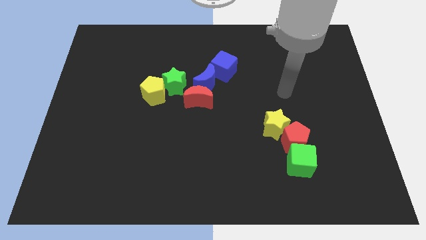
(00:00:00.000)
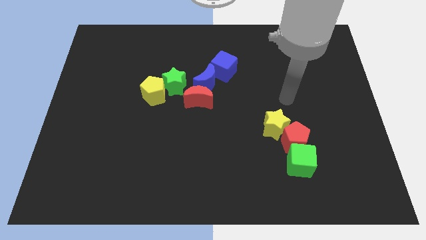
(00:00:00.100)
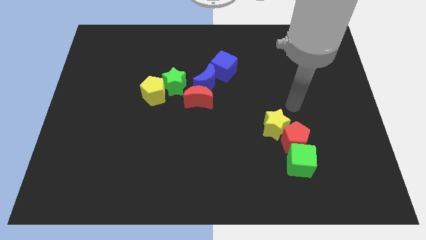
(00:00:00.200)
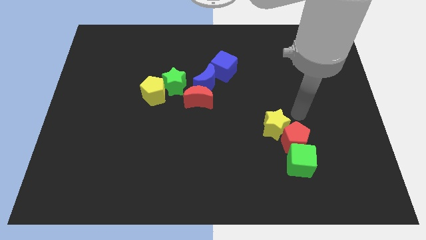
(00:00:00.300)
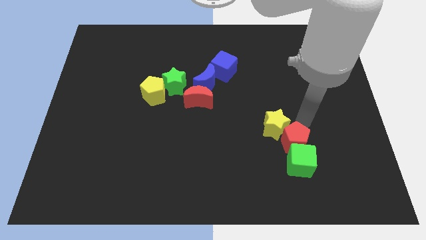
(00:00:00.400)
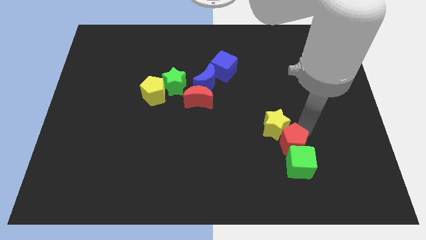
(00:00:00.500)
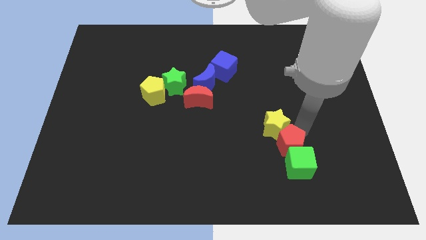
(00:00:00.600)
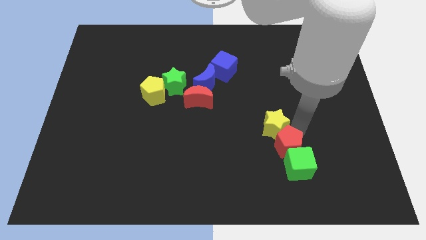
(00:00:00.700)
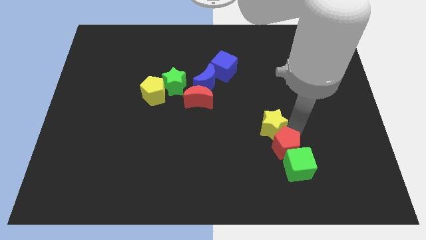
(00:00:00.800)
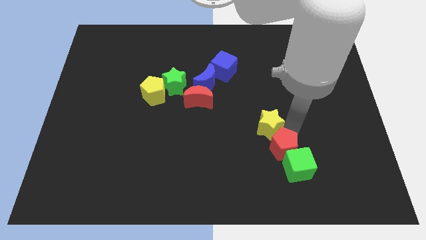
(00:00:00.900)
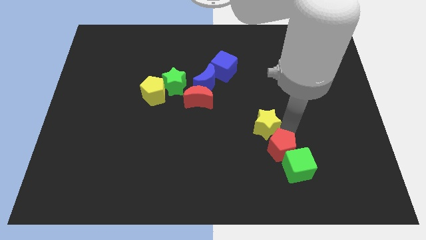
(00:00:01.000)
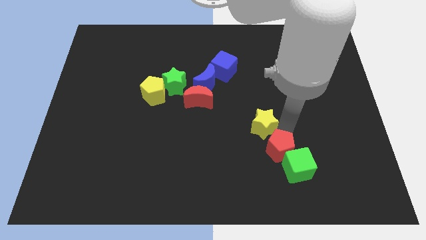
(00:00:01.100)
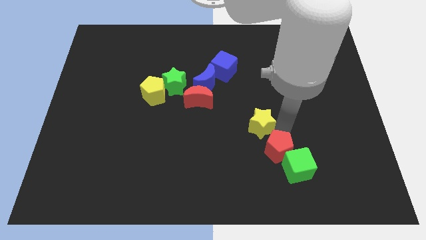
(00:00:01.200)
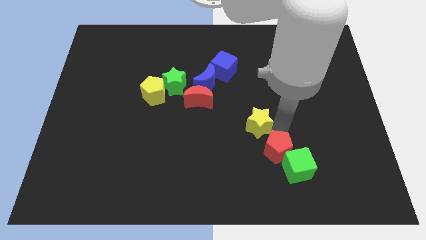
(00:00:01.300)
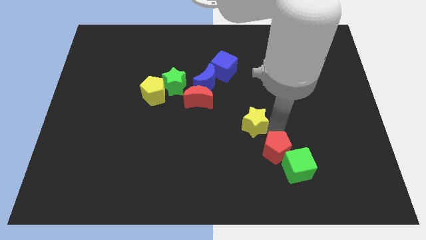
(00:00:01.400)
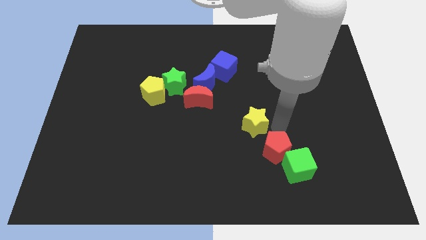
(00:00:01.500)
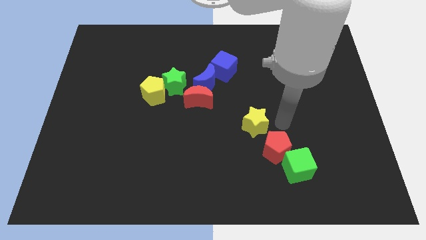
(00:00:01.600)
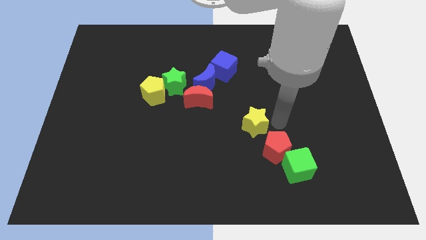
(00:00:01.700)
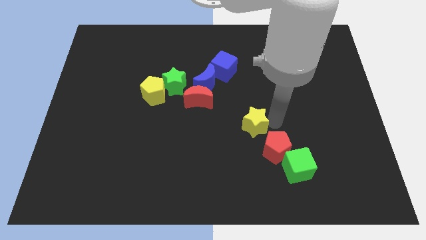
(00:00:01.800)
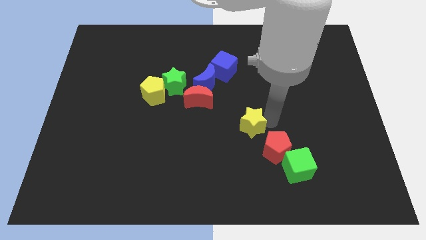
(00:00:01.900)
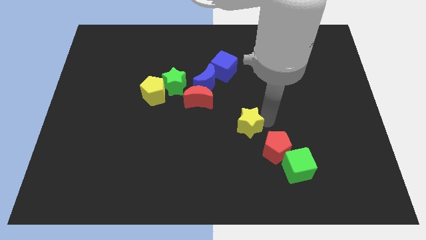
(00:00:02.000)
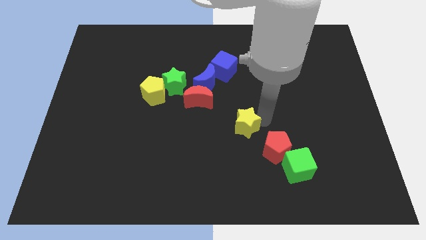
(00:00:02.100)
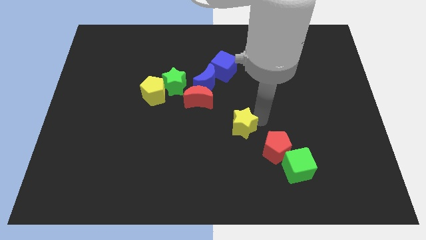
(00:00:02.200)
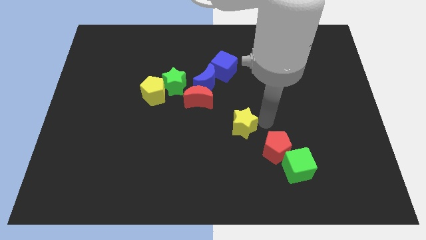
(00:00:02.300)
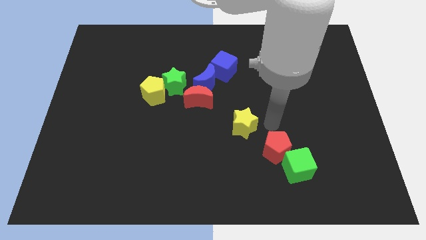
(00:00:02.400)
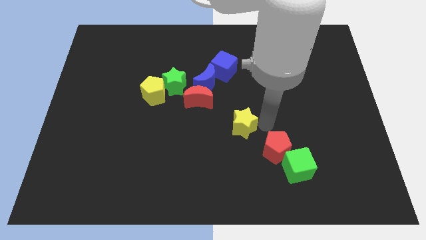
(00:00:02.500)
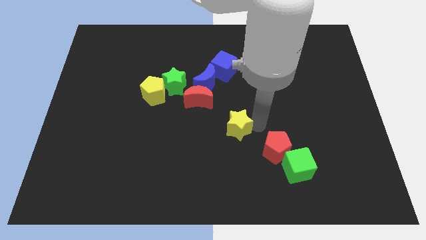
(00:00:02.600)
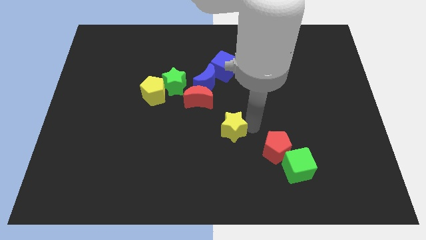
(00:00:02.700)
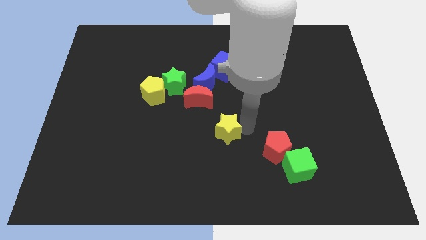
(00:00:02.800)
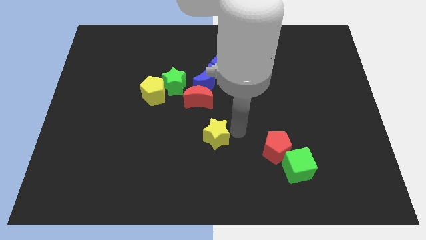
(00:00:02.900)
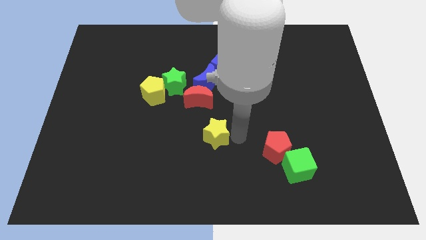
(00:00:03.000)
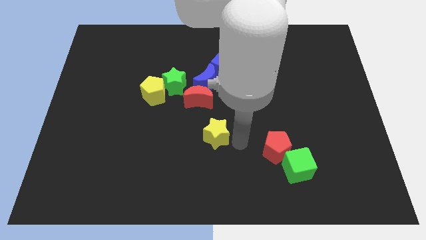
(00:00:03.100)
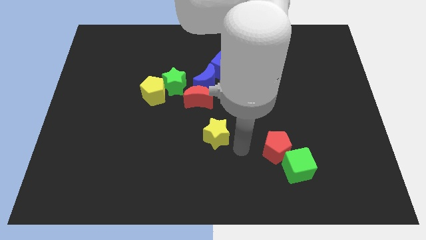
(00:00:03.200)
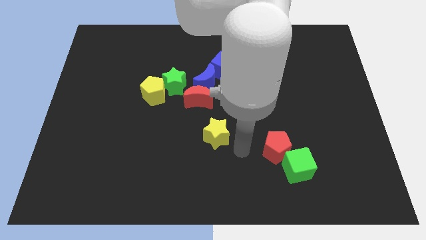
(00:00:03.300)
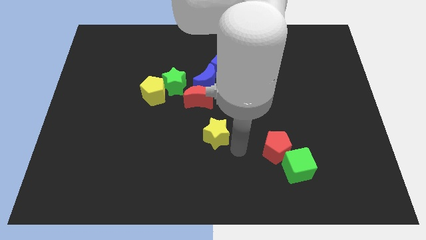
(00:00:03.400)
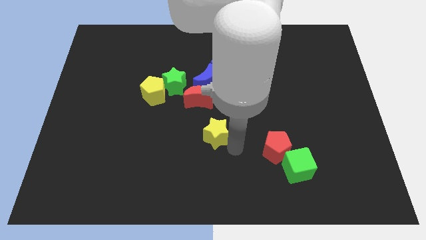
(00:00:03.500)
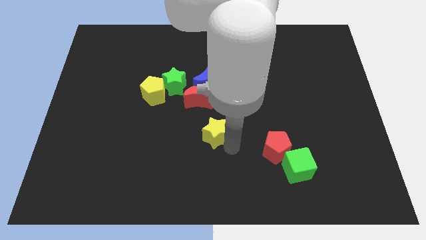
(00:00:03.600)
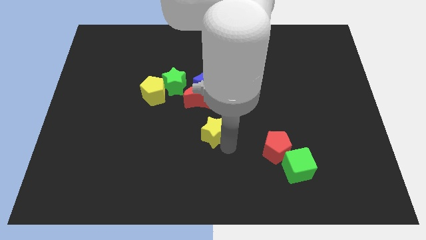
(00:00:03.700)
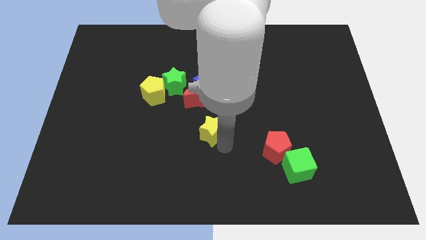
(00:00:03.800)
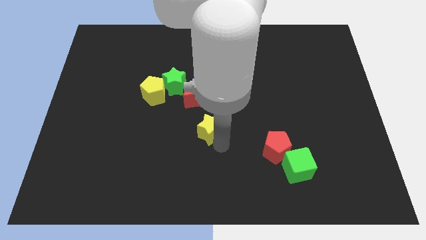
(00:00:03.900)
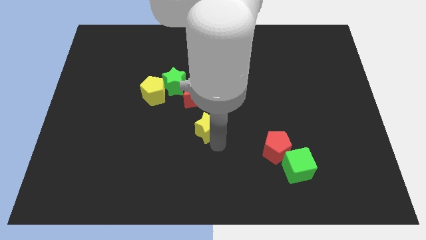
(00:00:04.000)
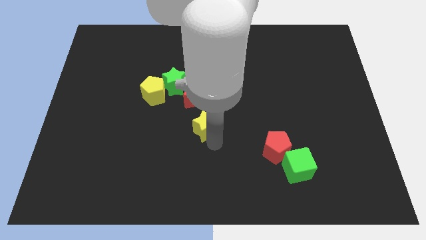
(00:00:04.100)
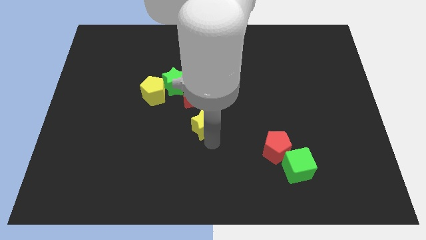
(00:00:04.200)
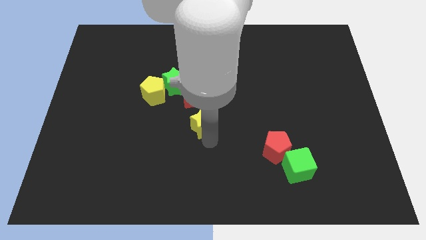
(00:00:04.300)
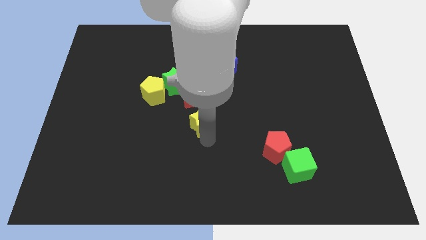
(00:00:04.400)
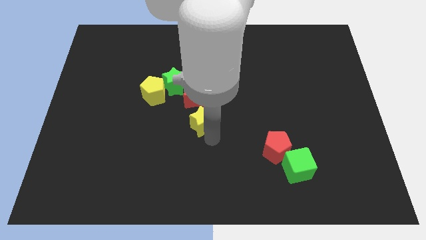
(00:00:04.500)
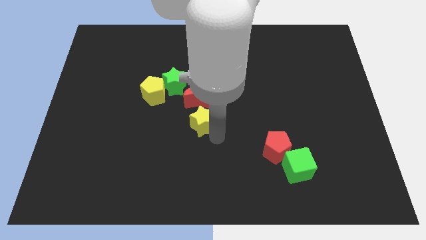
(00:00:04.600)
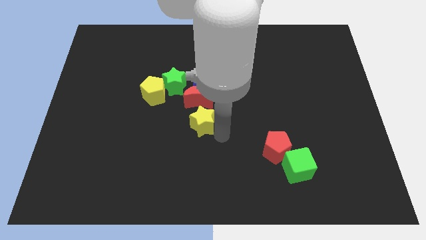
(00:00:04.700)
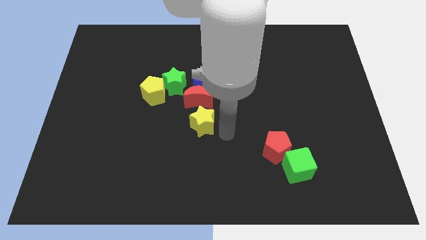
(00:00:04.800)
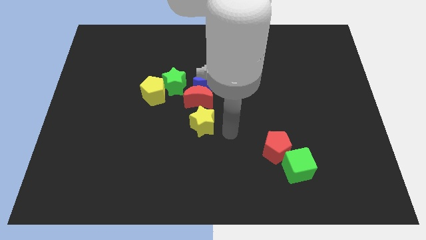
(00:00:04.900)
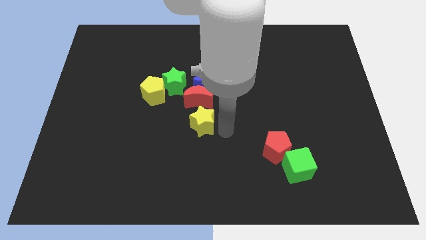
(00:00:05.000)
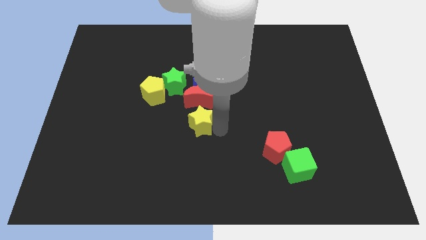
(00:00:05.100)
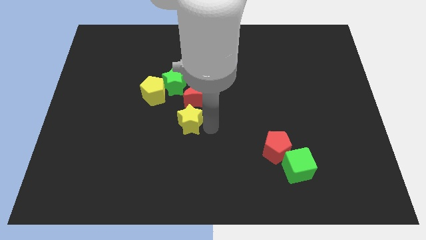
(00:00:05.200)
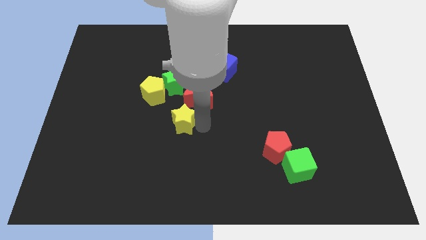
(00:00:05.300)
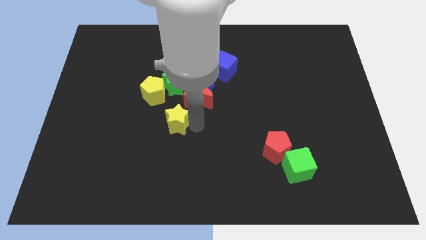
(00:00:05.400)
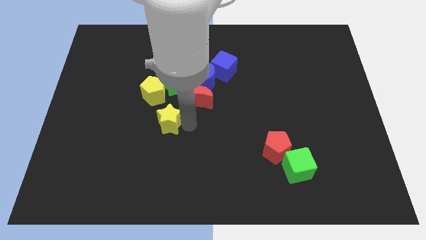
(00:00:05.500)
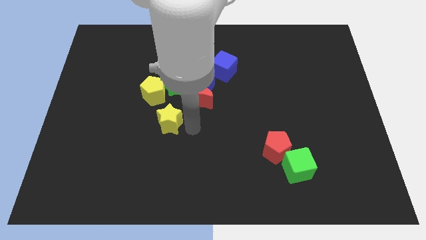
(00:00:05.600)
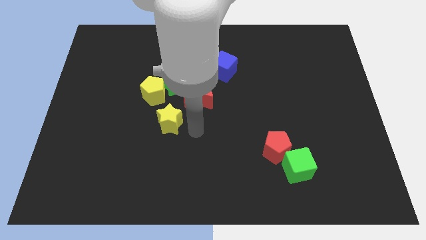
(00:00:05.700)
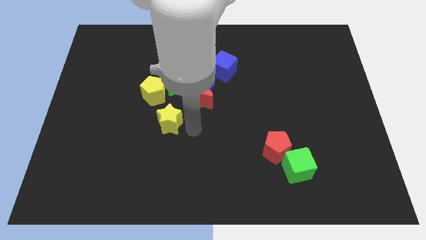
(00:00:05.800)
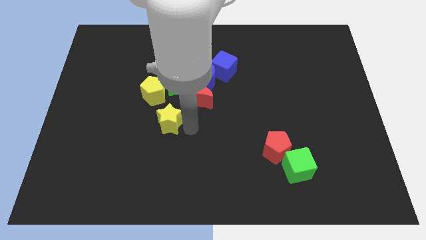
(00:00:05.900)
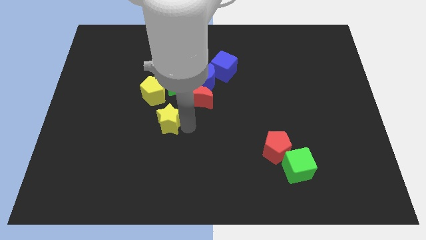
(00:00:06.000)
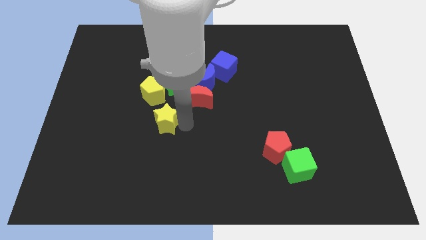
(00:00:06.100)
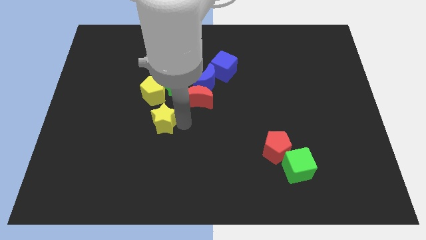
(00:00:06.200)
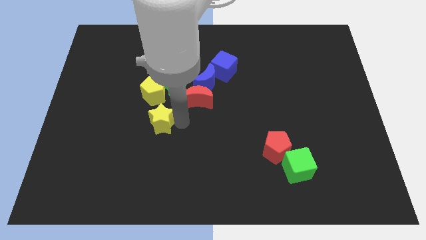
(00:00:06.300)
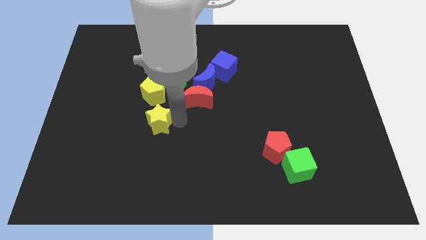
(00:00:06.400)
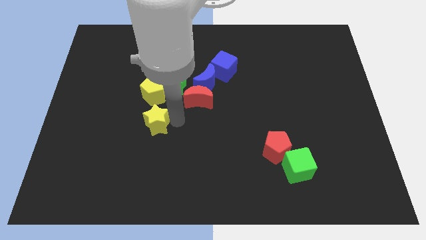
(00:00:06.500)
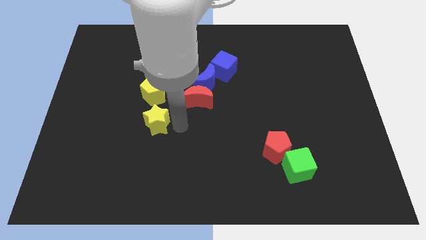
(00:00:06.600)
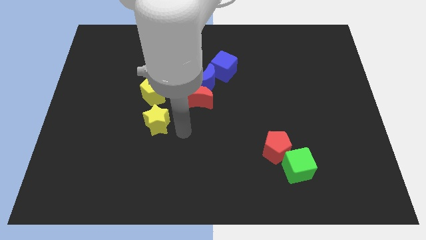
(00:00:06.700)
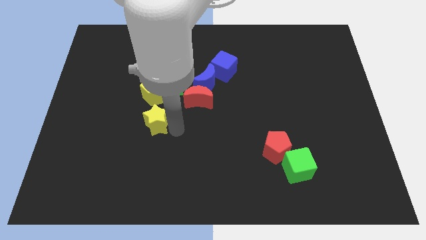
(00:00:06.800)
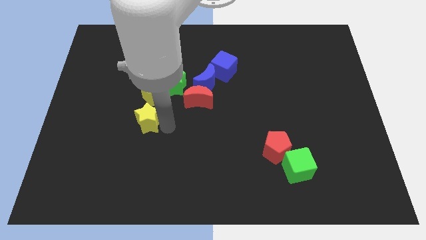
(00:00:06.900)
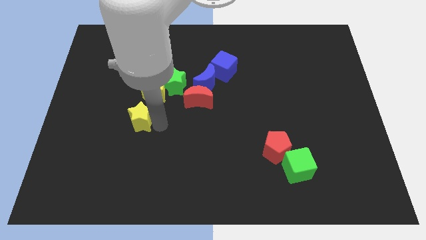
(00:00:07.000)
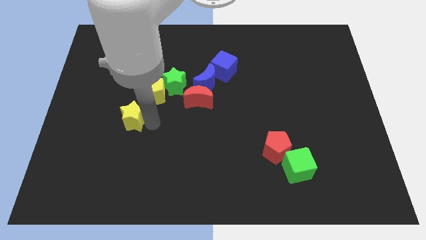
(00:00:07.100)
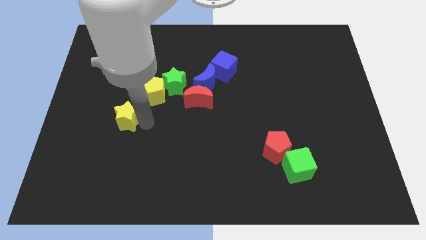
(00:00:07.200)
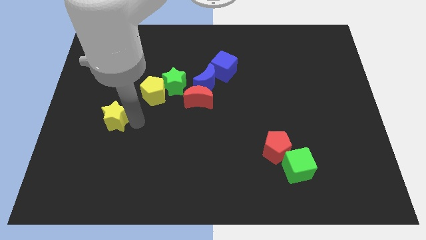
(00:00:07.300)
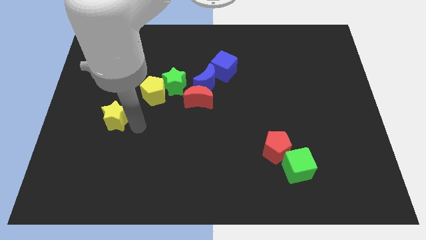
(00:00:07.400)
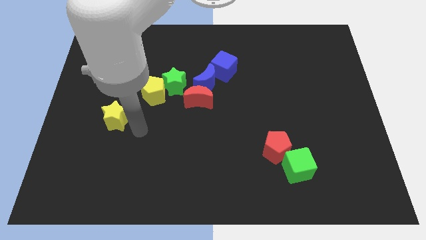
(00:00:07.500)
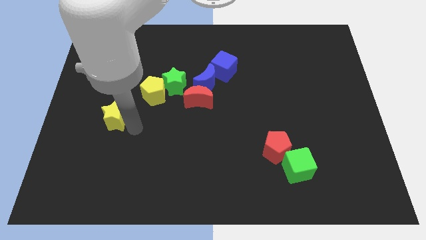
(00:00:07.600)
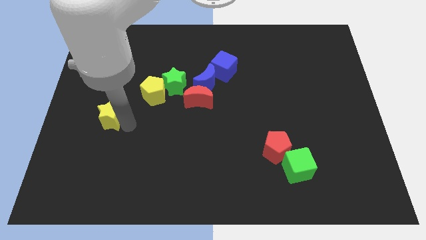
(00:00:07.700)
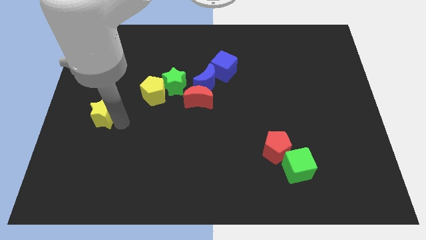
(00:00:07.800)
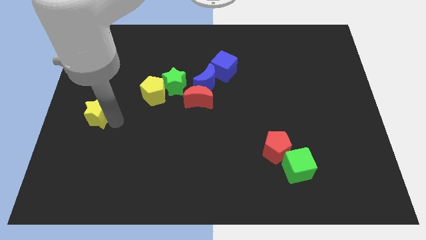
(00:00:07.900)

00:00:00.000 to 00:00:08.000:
push the yellow star to the left side
